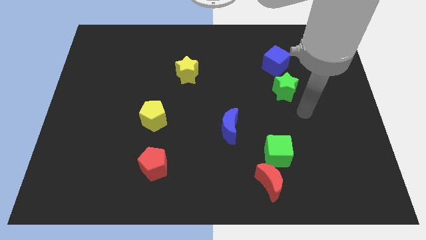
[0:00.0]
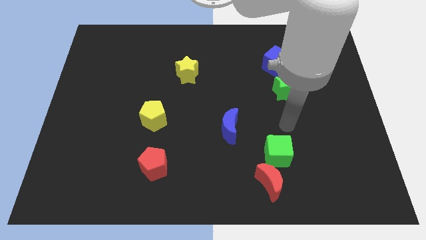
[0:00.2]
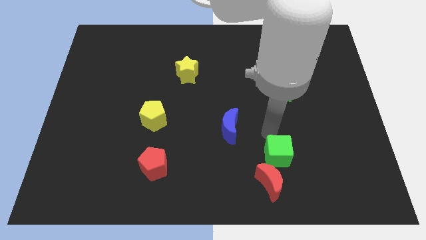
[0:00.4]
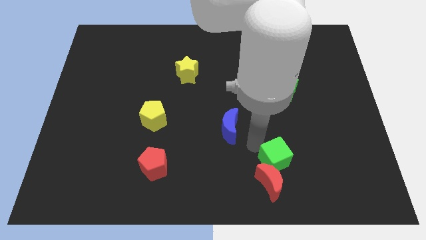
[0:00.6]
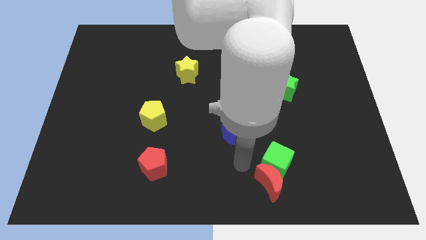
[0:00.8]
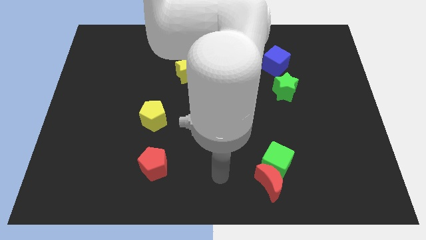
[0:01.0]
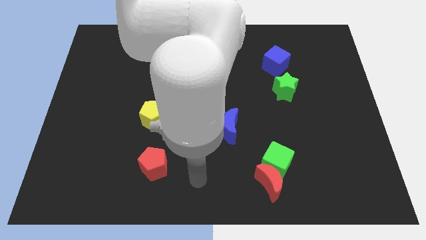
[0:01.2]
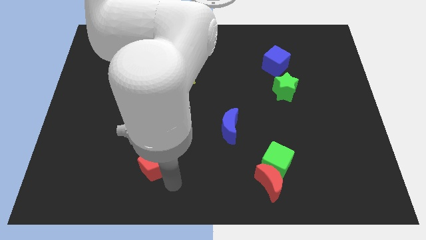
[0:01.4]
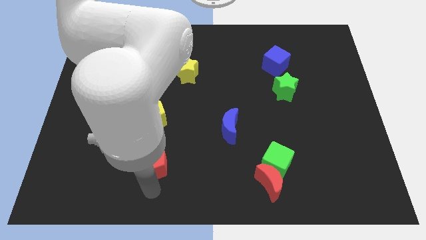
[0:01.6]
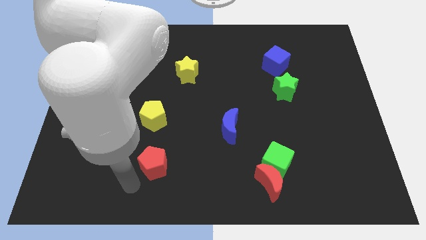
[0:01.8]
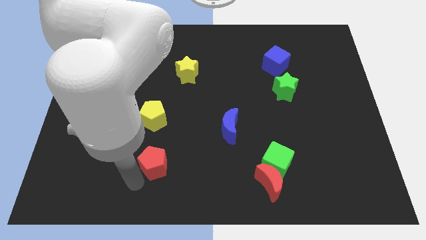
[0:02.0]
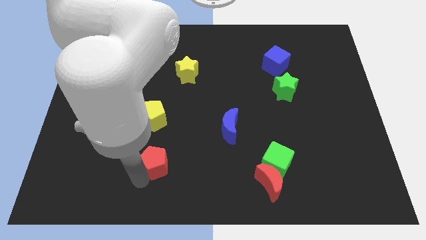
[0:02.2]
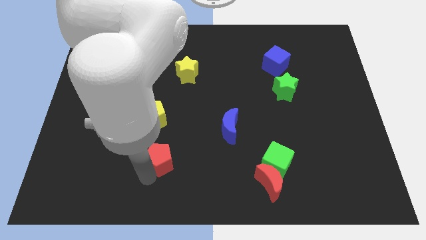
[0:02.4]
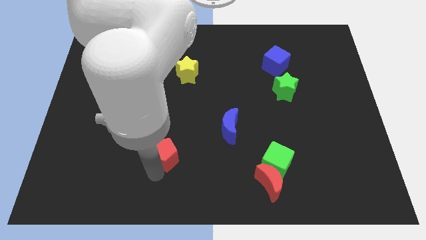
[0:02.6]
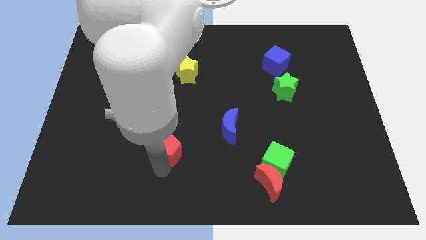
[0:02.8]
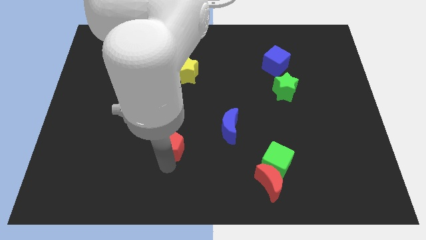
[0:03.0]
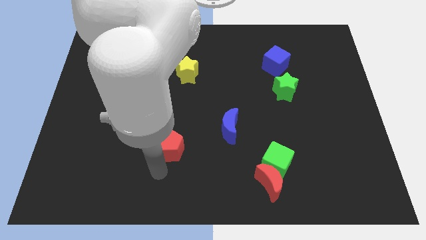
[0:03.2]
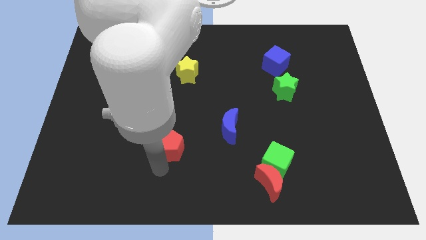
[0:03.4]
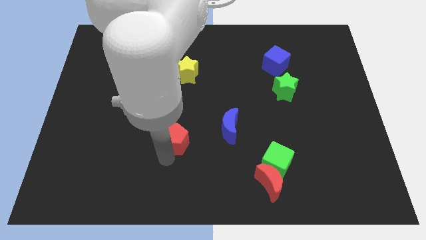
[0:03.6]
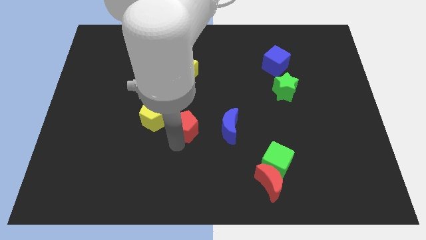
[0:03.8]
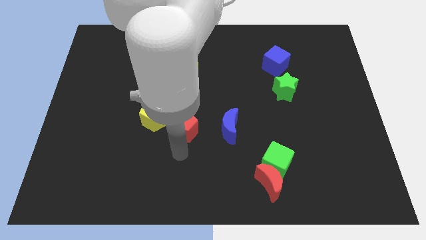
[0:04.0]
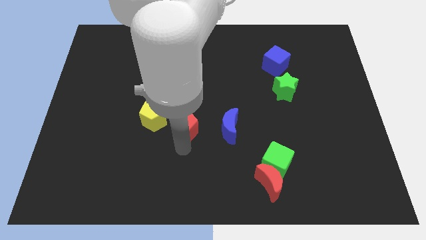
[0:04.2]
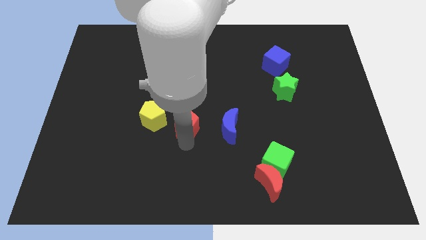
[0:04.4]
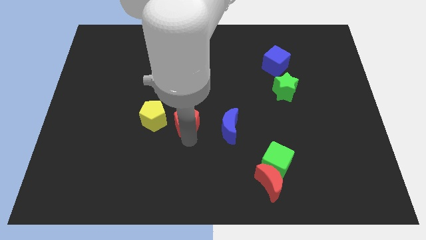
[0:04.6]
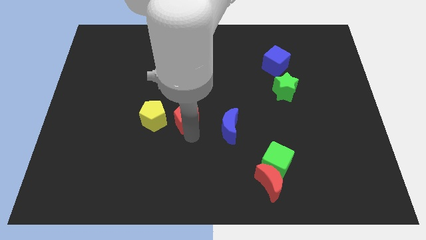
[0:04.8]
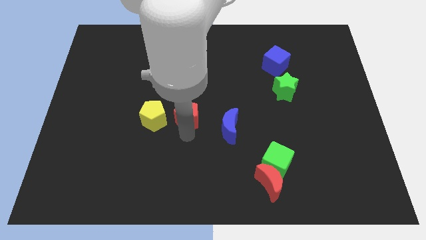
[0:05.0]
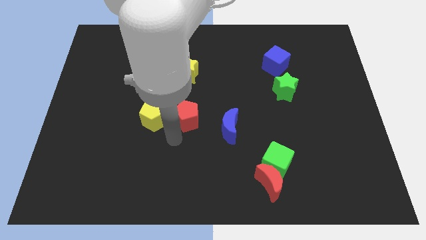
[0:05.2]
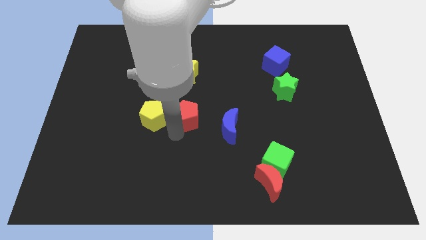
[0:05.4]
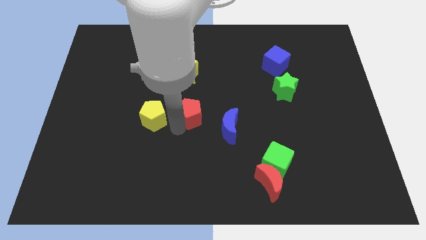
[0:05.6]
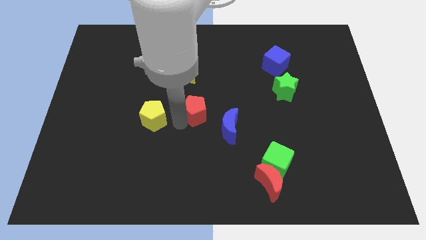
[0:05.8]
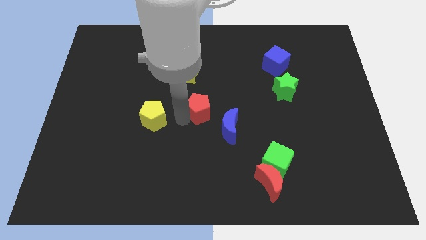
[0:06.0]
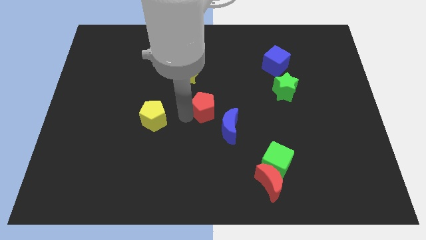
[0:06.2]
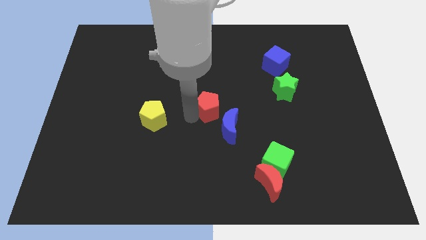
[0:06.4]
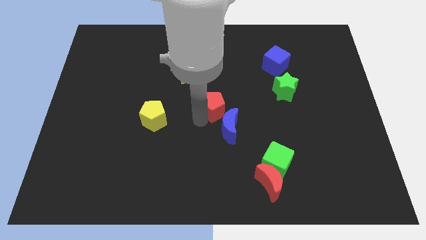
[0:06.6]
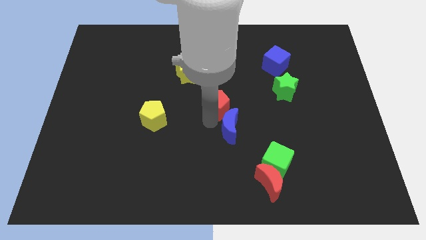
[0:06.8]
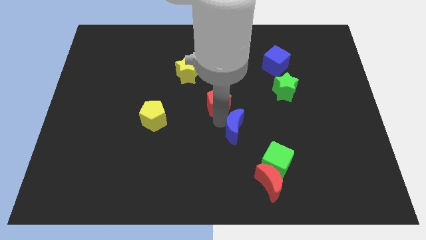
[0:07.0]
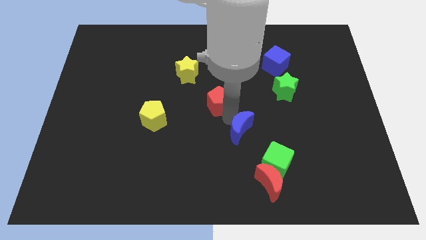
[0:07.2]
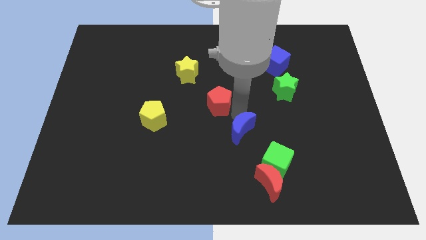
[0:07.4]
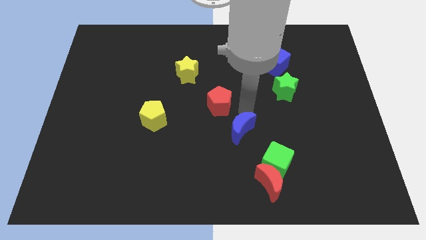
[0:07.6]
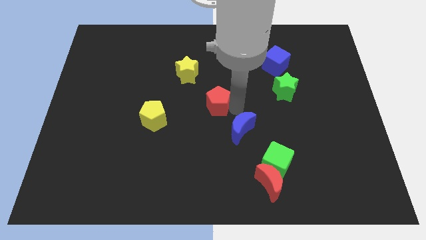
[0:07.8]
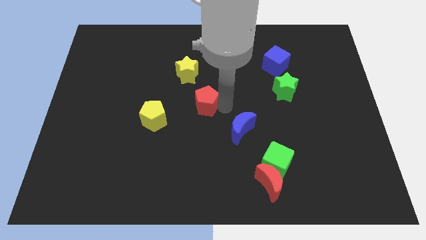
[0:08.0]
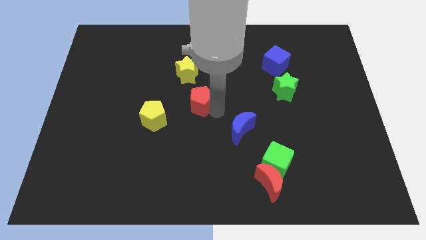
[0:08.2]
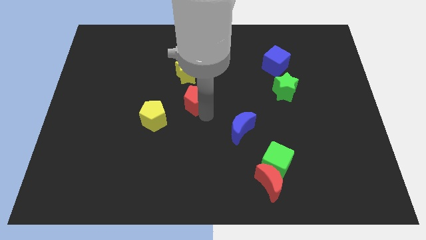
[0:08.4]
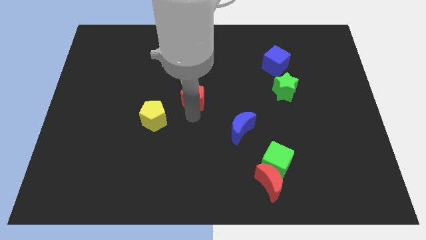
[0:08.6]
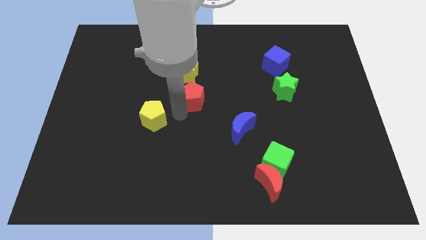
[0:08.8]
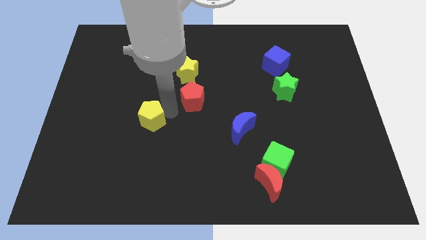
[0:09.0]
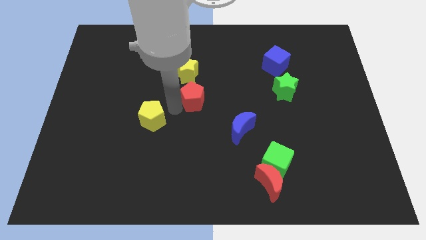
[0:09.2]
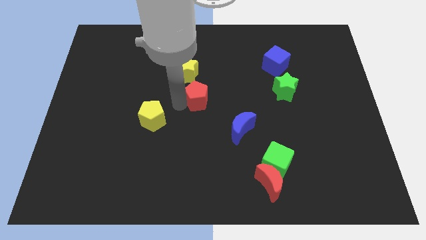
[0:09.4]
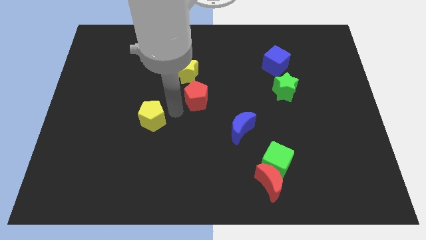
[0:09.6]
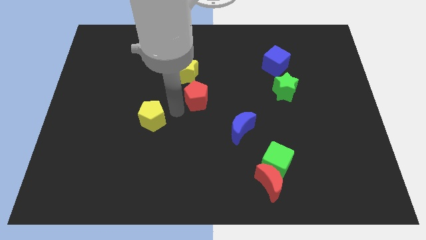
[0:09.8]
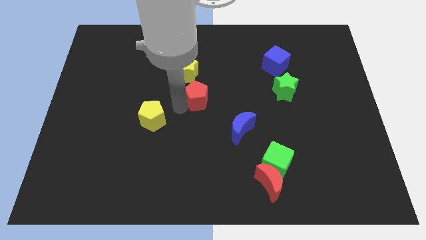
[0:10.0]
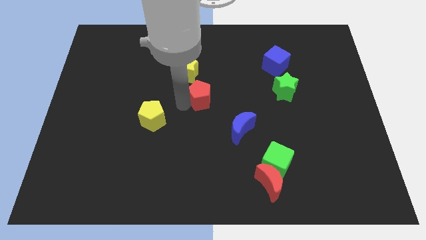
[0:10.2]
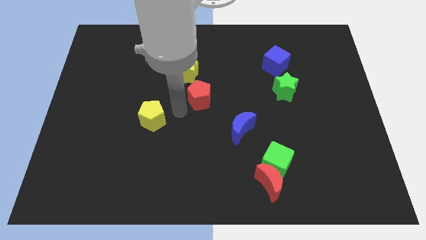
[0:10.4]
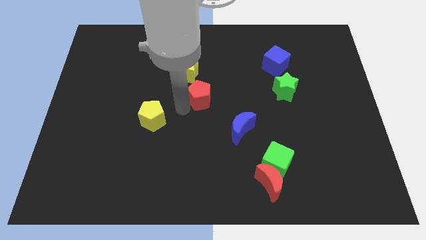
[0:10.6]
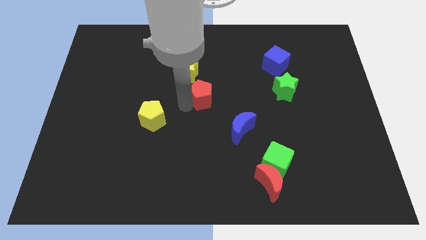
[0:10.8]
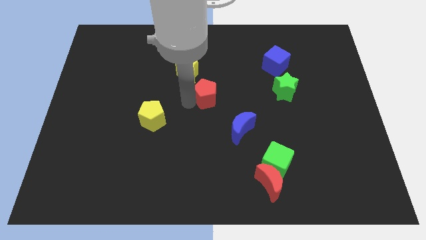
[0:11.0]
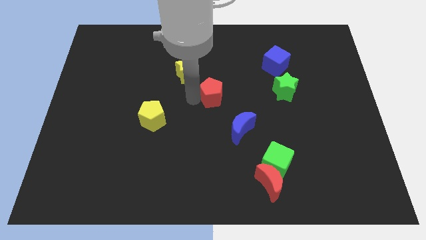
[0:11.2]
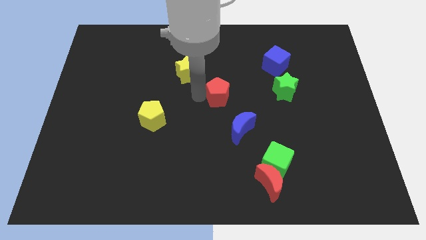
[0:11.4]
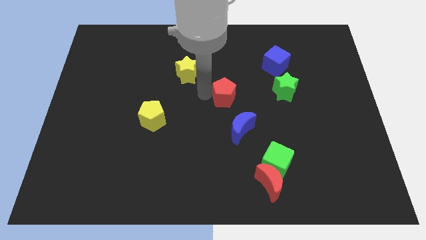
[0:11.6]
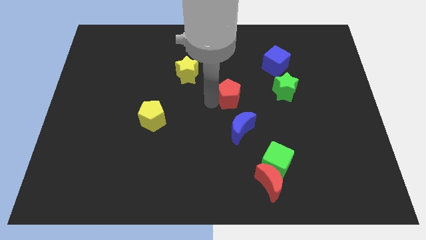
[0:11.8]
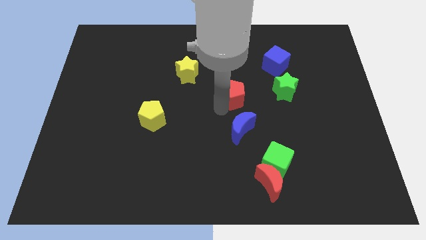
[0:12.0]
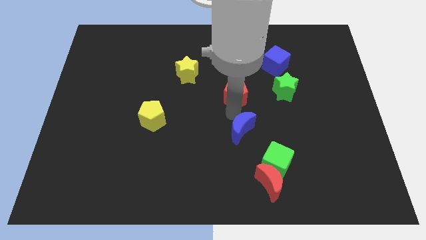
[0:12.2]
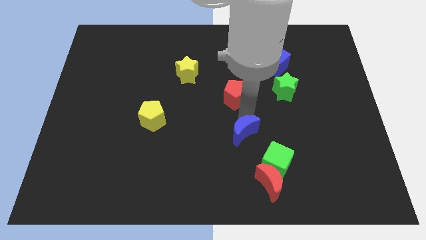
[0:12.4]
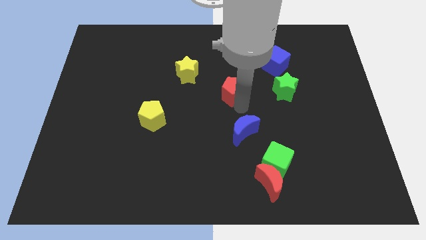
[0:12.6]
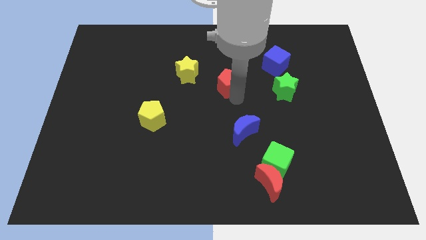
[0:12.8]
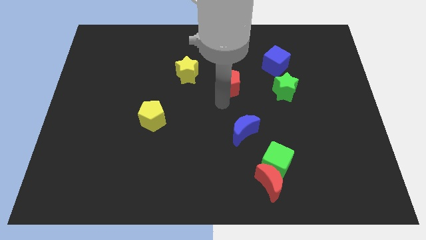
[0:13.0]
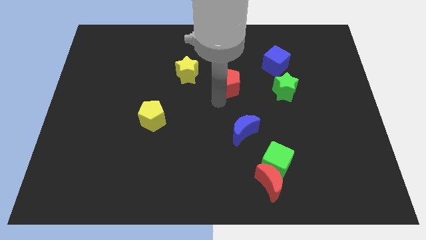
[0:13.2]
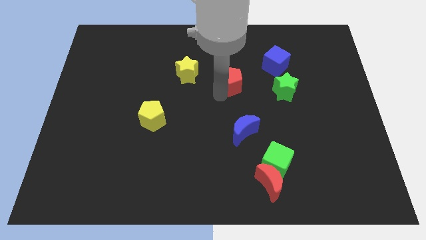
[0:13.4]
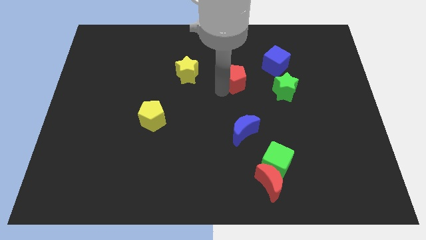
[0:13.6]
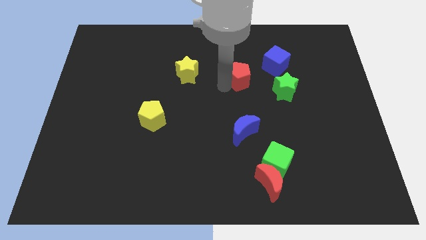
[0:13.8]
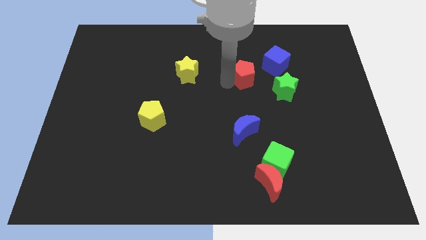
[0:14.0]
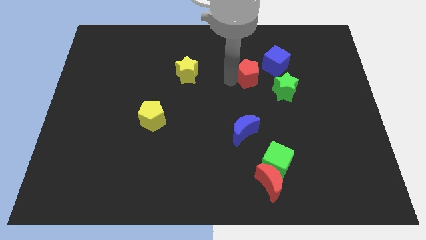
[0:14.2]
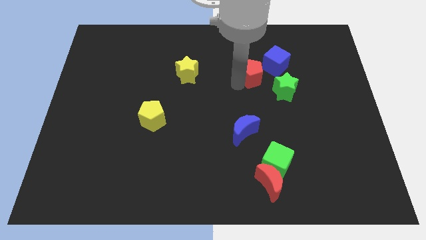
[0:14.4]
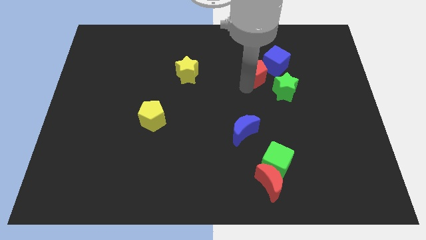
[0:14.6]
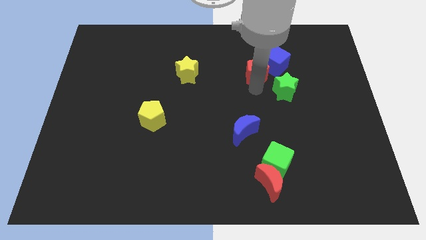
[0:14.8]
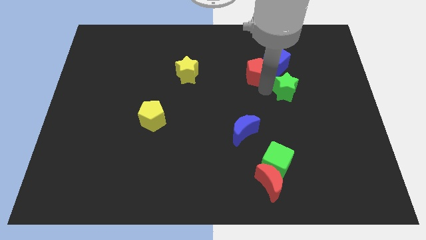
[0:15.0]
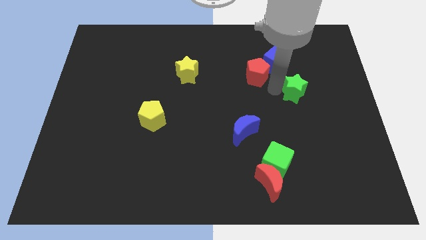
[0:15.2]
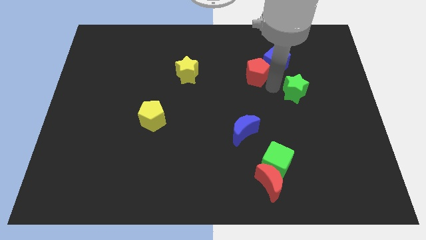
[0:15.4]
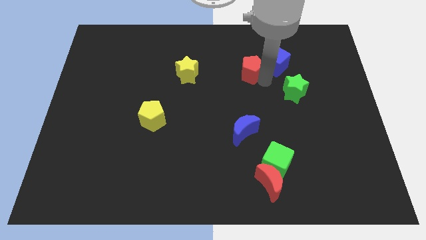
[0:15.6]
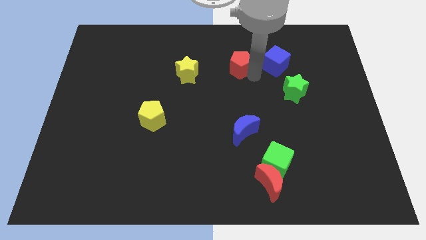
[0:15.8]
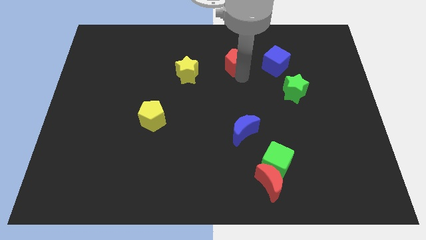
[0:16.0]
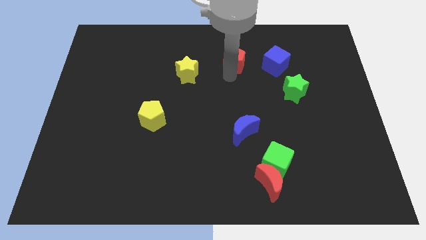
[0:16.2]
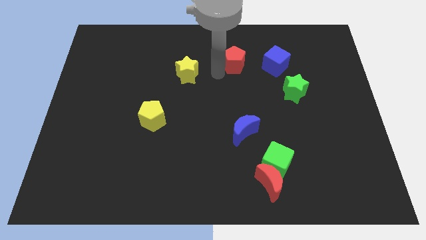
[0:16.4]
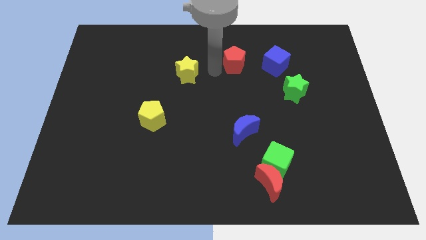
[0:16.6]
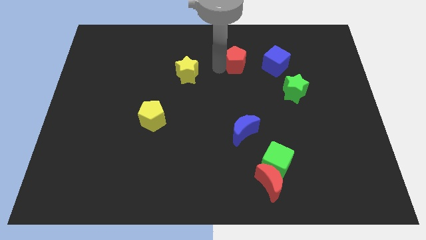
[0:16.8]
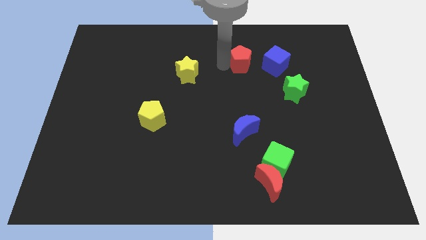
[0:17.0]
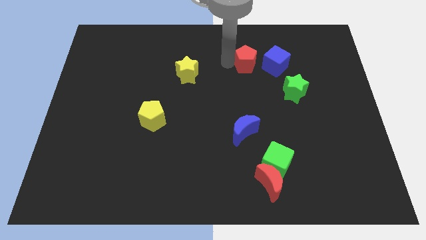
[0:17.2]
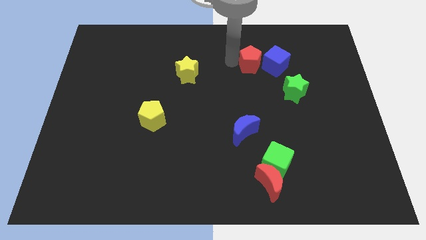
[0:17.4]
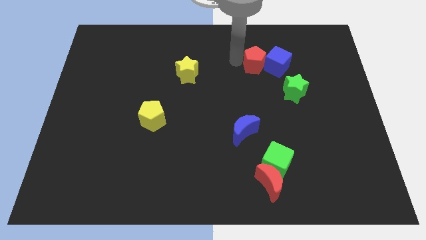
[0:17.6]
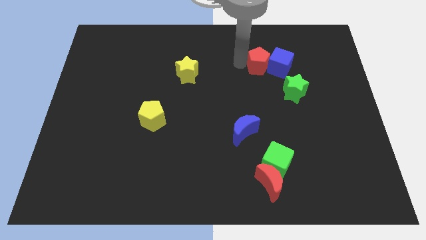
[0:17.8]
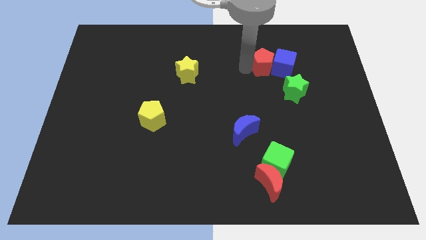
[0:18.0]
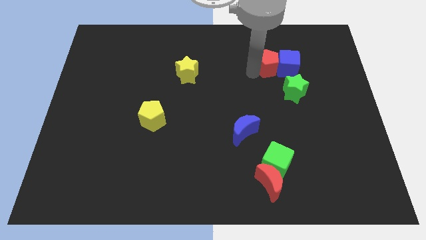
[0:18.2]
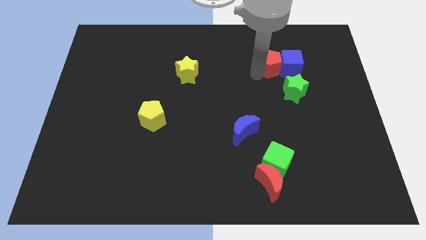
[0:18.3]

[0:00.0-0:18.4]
push the red pentagon to the top of the green star
